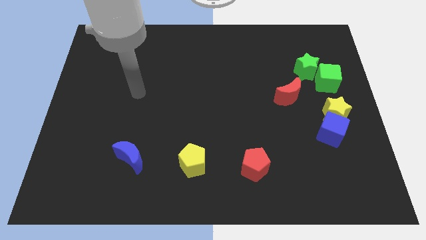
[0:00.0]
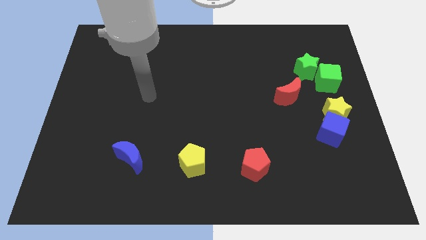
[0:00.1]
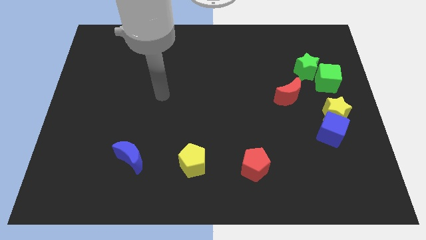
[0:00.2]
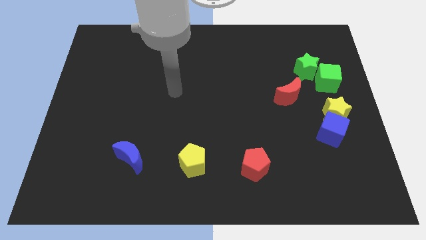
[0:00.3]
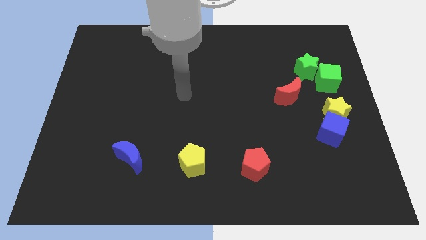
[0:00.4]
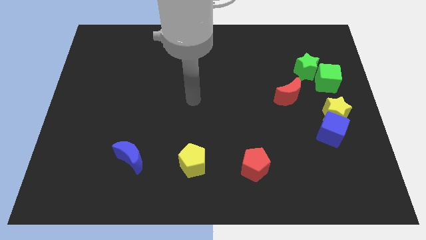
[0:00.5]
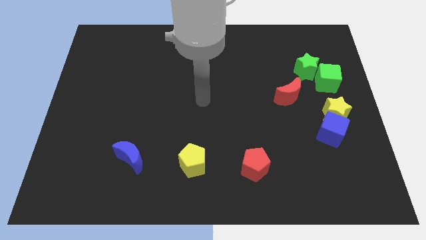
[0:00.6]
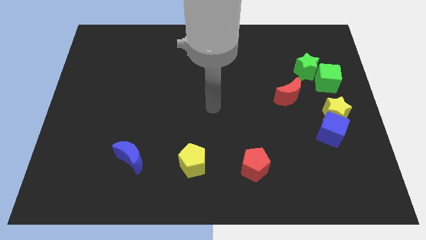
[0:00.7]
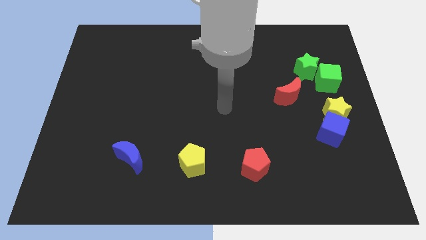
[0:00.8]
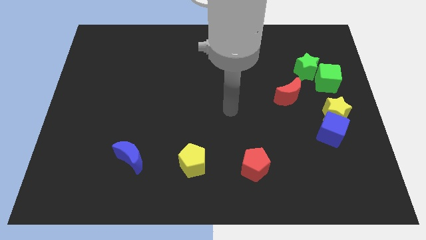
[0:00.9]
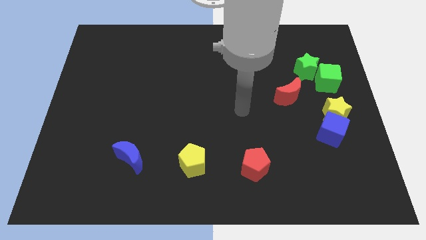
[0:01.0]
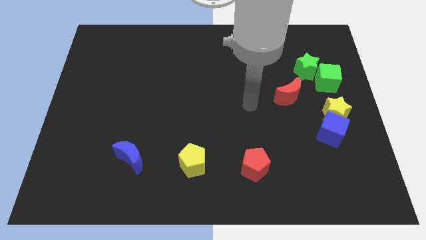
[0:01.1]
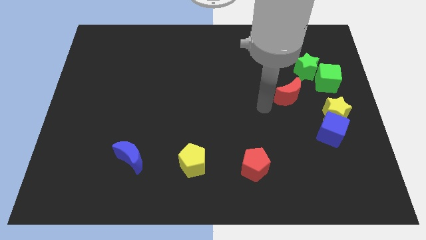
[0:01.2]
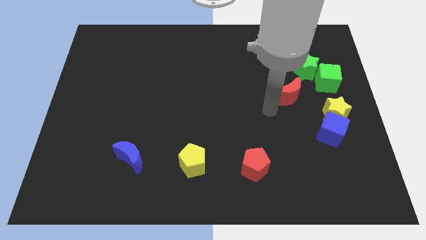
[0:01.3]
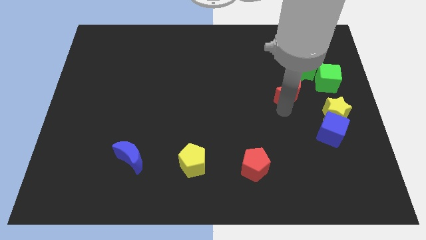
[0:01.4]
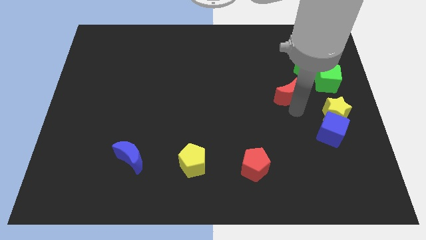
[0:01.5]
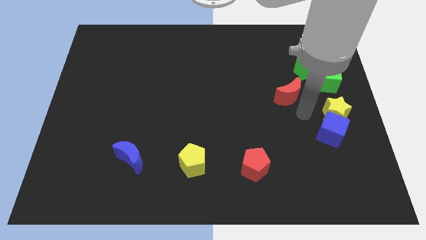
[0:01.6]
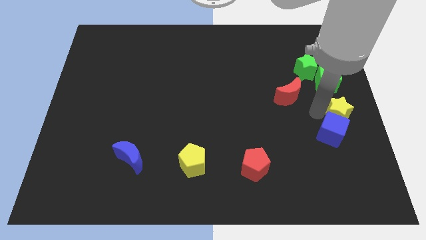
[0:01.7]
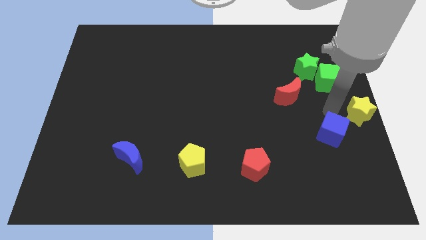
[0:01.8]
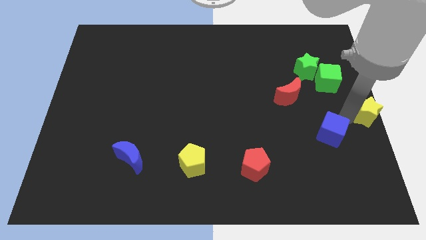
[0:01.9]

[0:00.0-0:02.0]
separate the blue cube from the yellow star

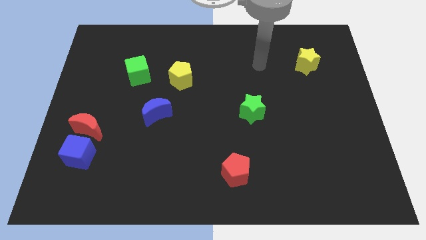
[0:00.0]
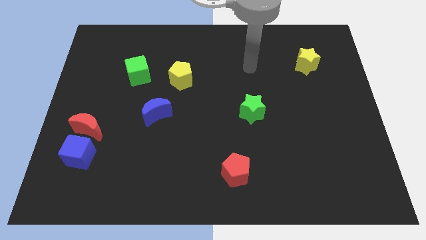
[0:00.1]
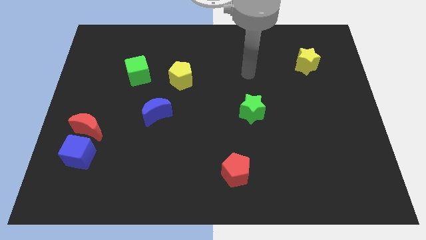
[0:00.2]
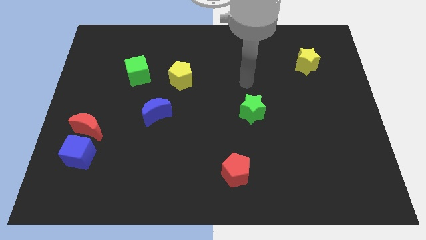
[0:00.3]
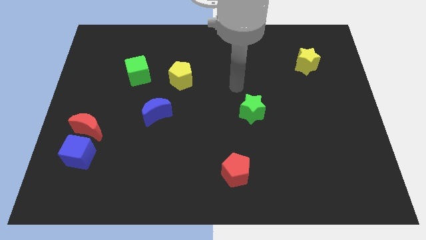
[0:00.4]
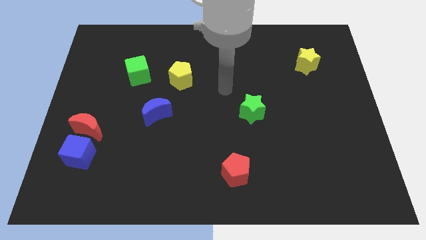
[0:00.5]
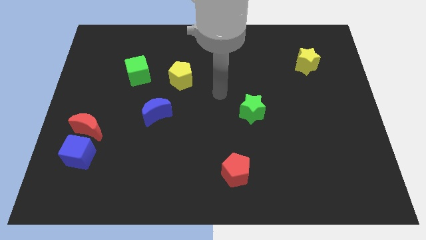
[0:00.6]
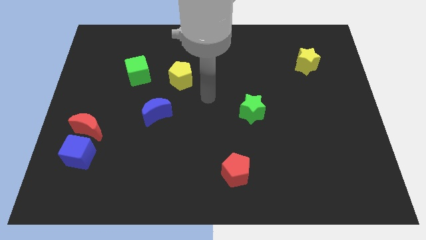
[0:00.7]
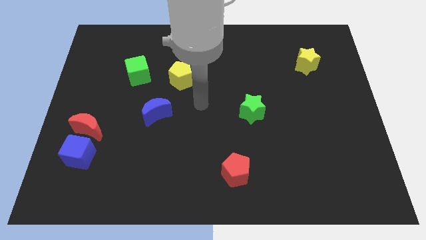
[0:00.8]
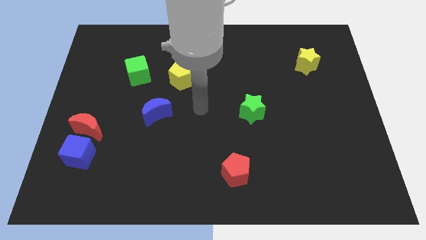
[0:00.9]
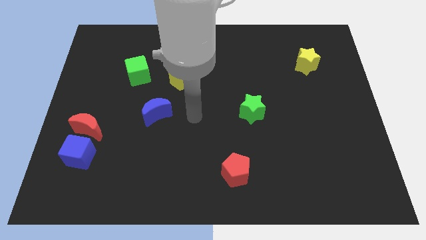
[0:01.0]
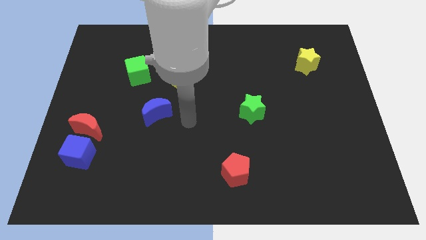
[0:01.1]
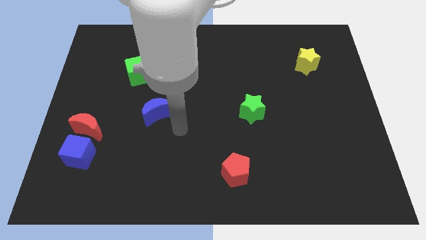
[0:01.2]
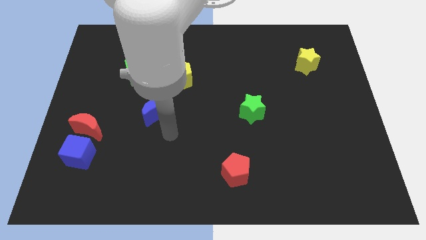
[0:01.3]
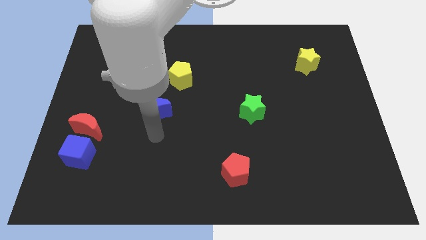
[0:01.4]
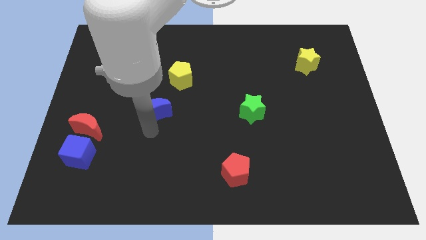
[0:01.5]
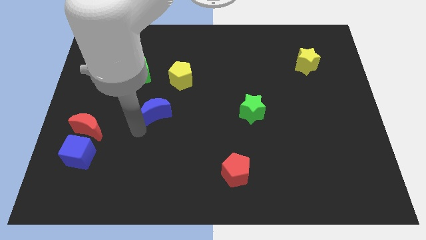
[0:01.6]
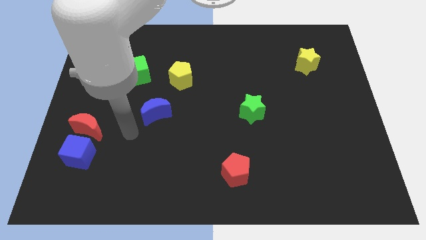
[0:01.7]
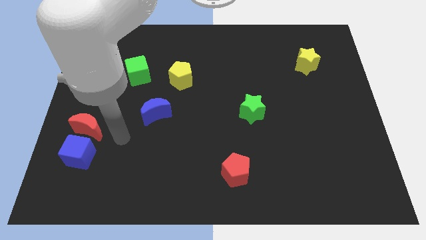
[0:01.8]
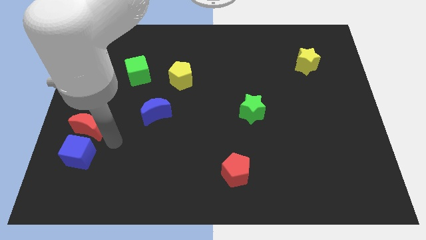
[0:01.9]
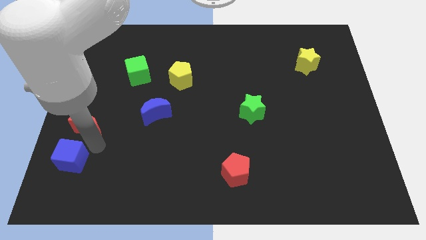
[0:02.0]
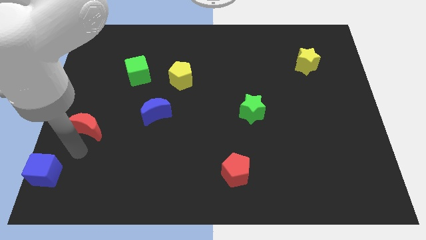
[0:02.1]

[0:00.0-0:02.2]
separate the red moon from the blue cube

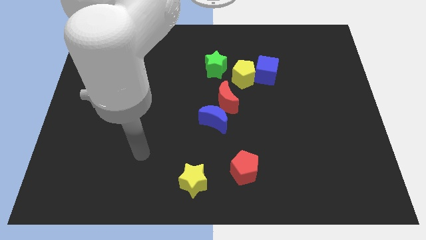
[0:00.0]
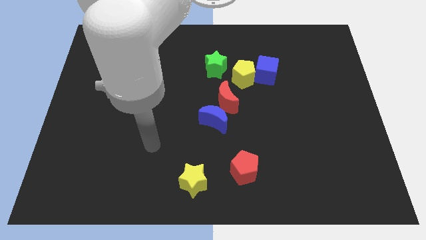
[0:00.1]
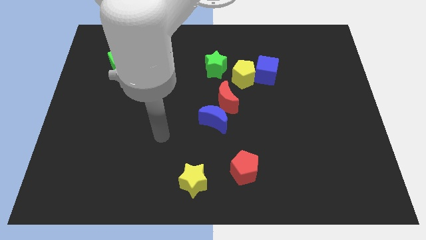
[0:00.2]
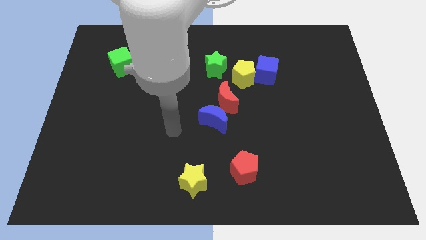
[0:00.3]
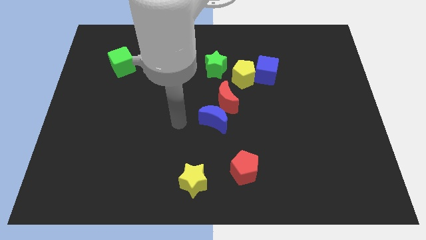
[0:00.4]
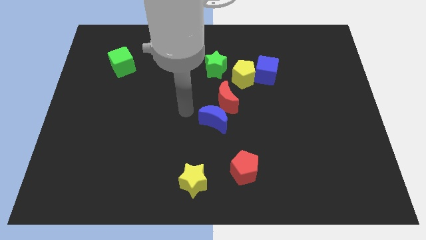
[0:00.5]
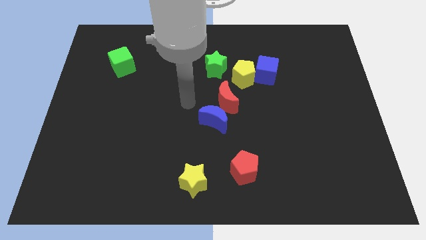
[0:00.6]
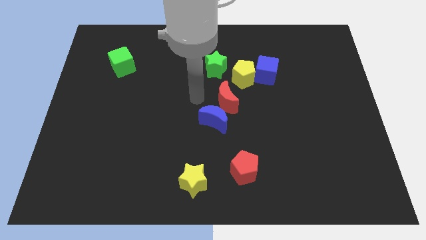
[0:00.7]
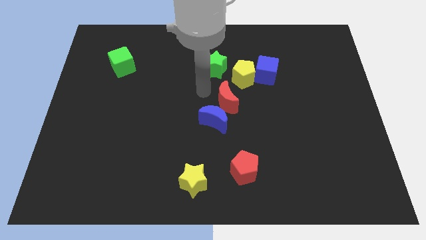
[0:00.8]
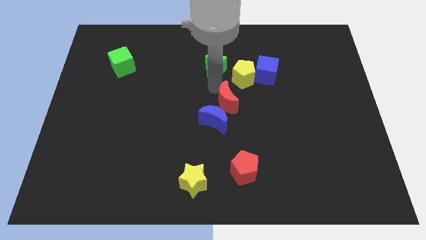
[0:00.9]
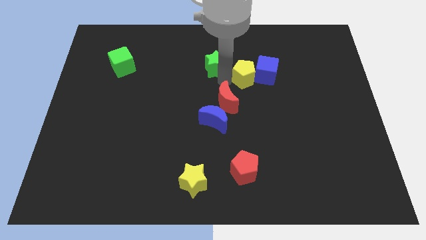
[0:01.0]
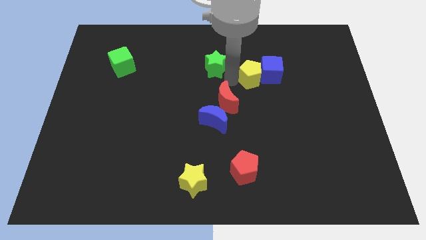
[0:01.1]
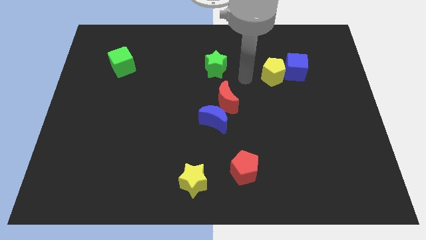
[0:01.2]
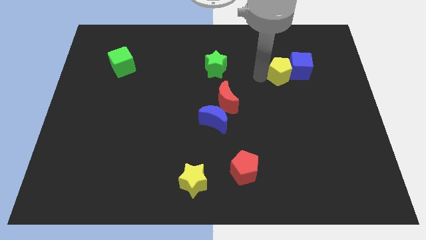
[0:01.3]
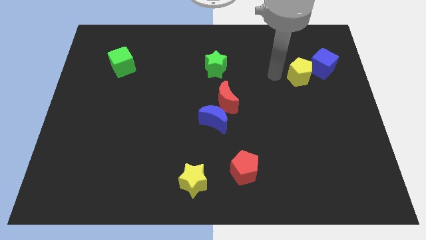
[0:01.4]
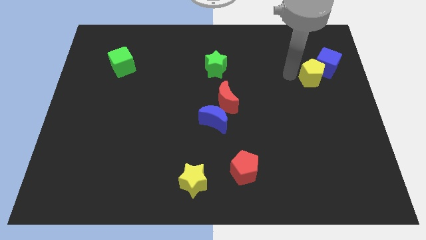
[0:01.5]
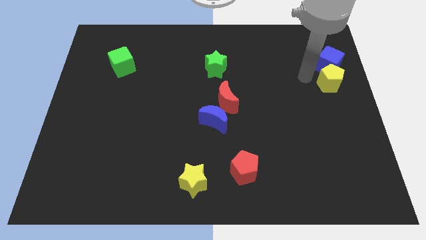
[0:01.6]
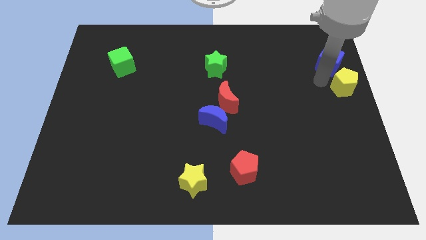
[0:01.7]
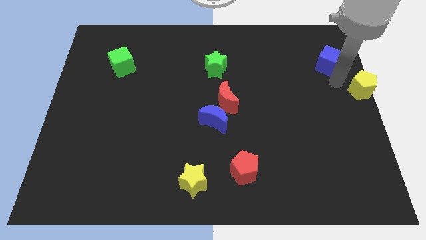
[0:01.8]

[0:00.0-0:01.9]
separate the blue cube from the yellow pentagon

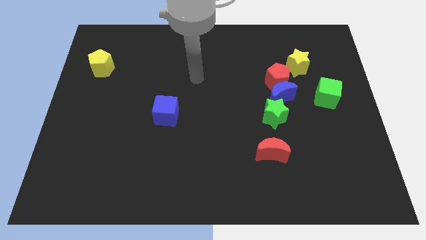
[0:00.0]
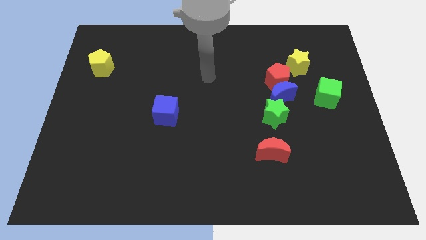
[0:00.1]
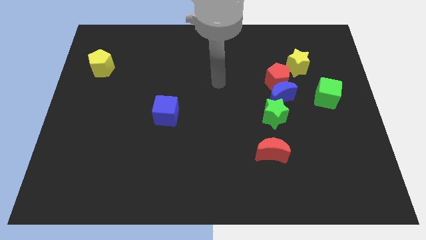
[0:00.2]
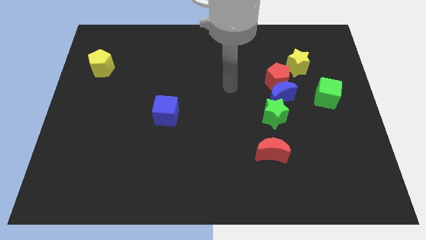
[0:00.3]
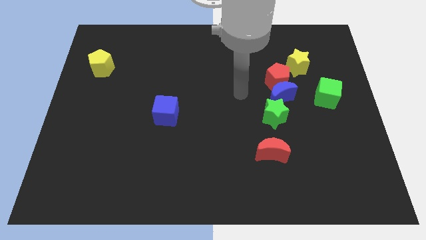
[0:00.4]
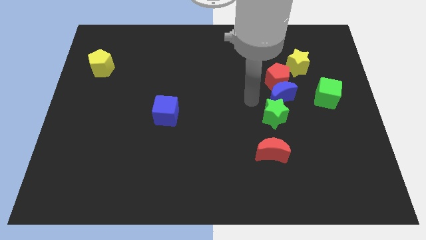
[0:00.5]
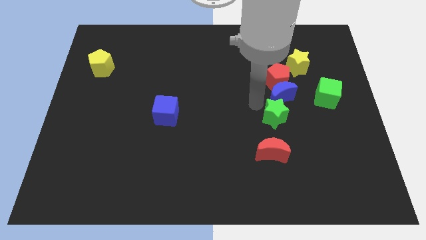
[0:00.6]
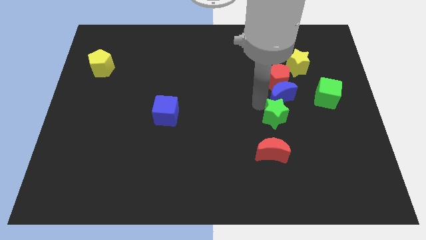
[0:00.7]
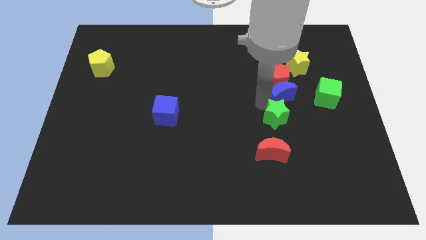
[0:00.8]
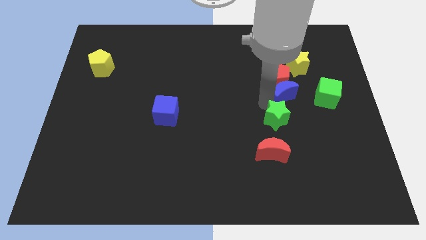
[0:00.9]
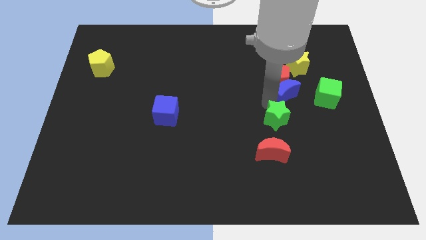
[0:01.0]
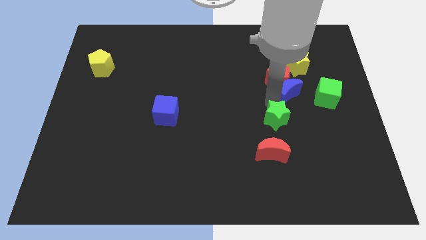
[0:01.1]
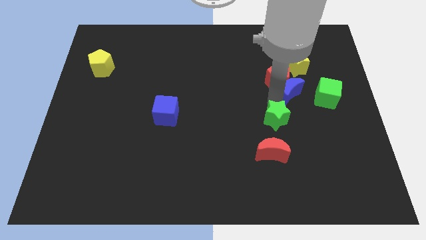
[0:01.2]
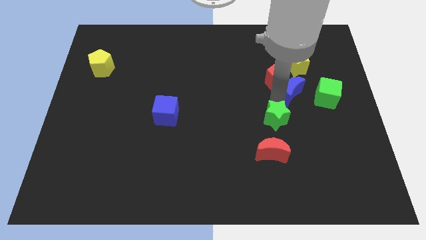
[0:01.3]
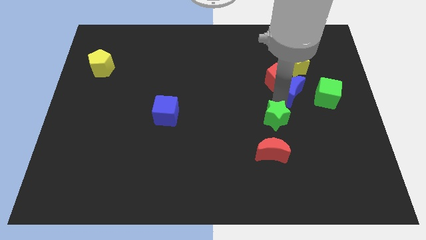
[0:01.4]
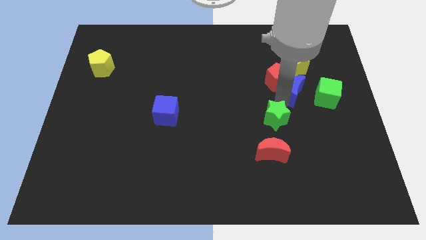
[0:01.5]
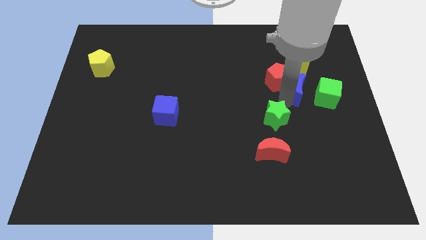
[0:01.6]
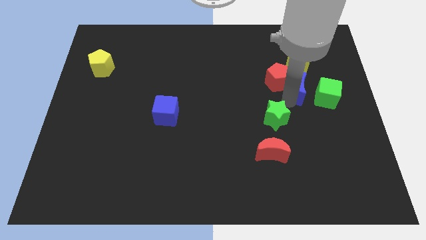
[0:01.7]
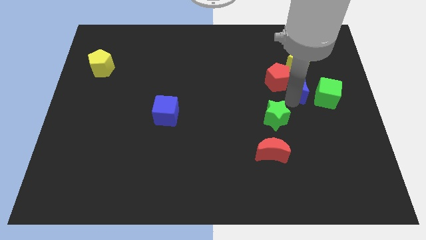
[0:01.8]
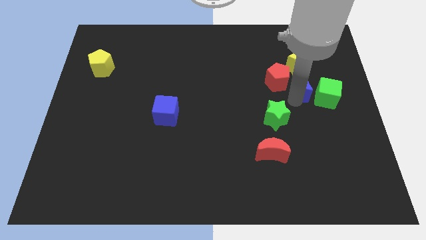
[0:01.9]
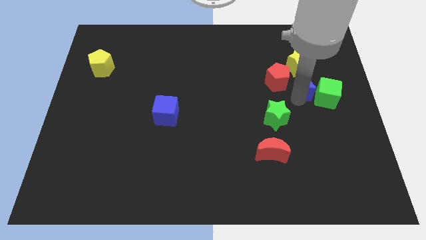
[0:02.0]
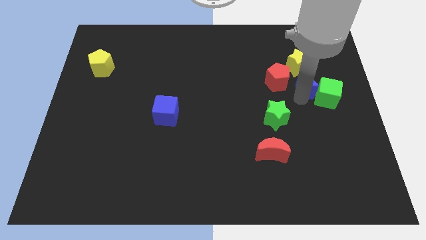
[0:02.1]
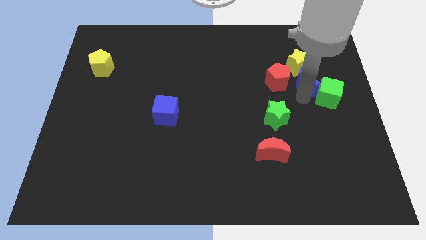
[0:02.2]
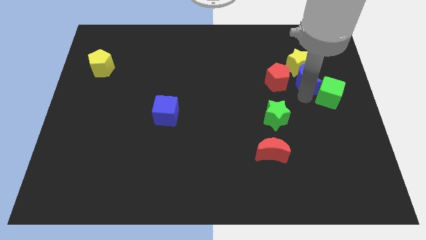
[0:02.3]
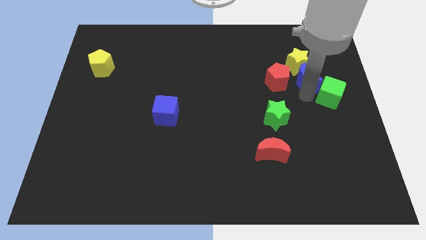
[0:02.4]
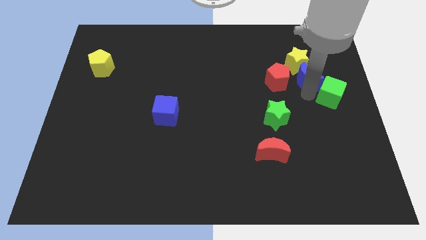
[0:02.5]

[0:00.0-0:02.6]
move the blue moon away from the red pentagon and green star

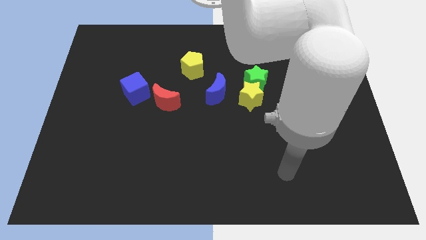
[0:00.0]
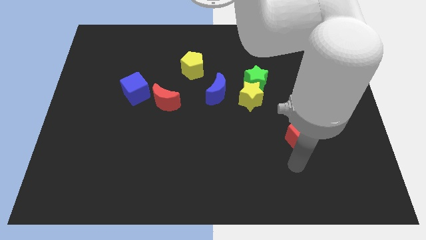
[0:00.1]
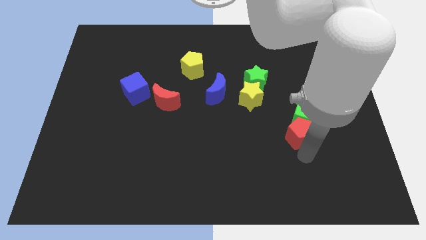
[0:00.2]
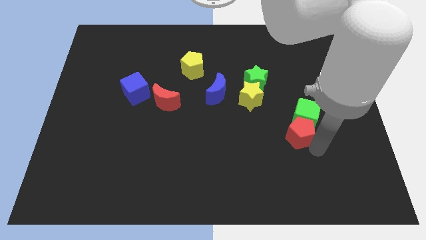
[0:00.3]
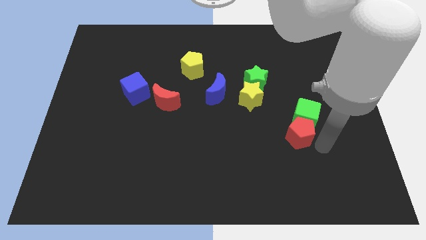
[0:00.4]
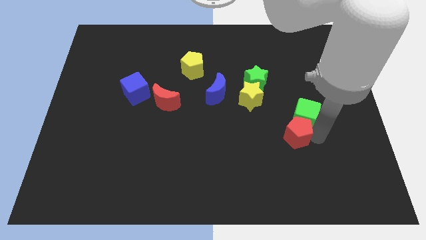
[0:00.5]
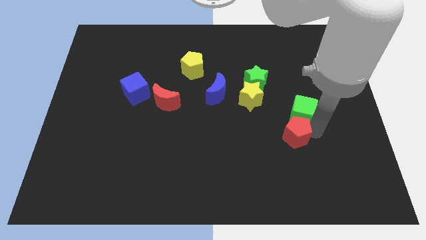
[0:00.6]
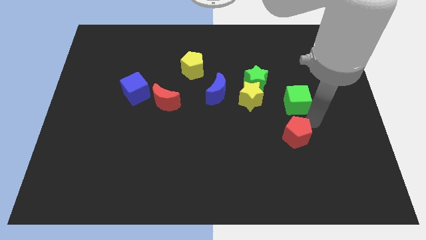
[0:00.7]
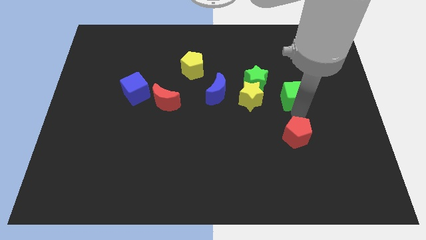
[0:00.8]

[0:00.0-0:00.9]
pull the red pentagon apart from the green cube
